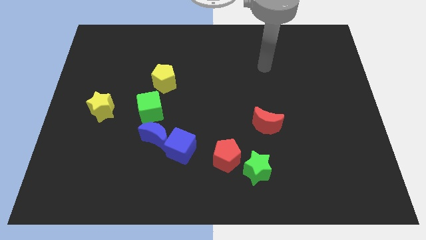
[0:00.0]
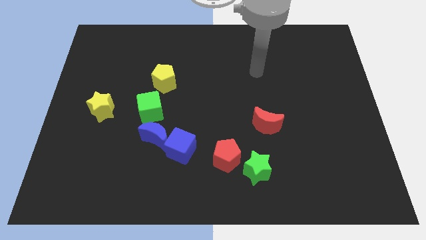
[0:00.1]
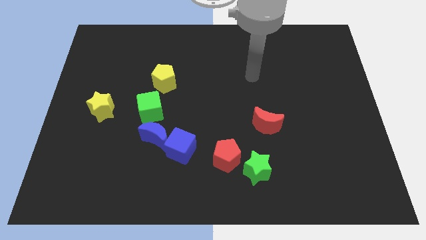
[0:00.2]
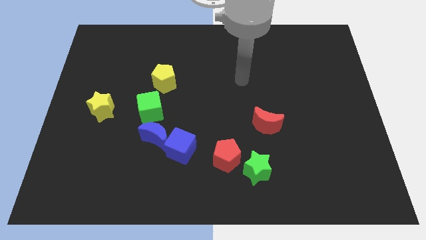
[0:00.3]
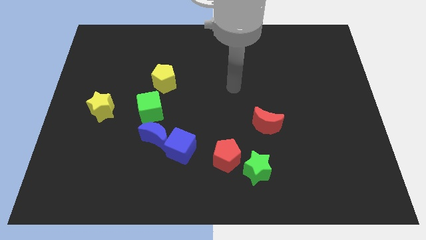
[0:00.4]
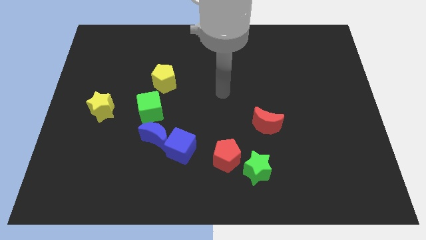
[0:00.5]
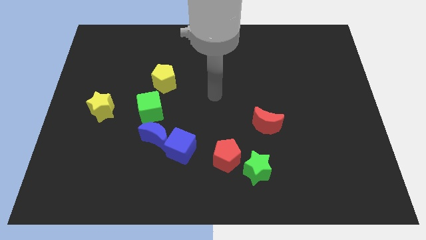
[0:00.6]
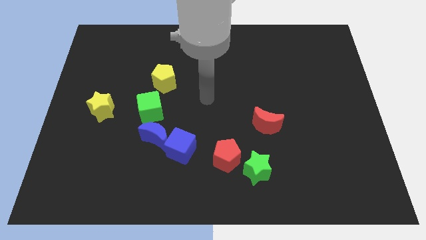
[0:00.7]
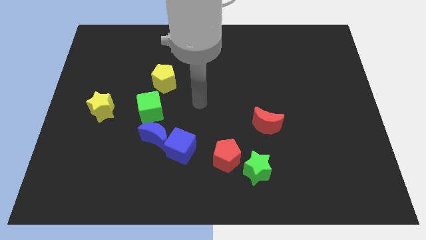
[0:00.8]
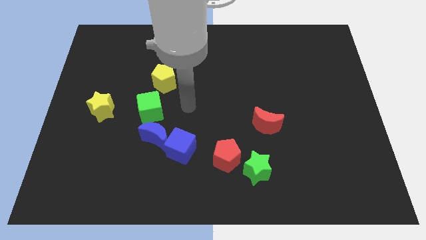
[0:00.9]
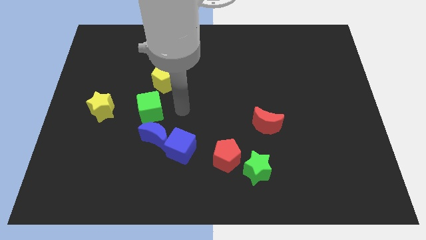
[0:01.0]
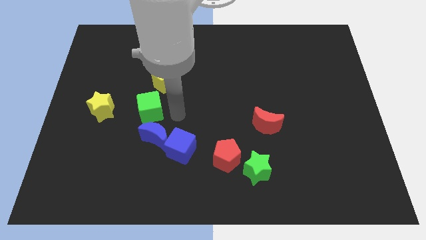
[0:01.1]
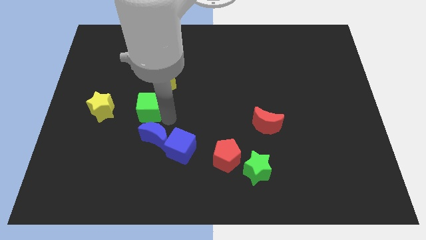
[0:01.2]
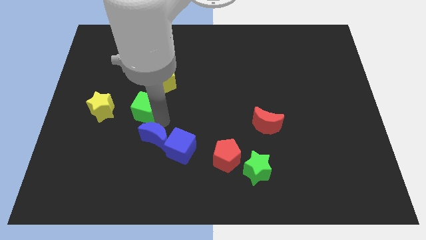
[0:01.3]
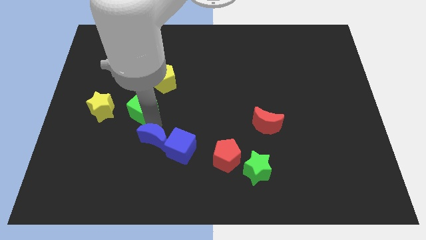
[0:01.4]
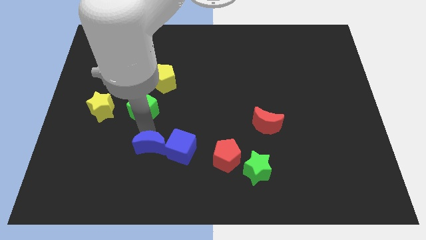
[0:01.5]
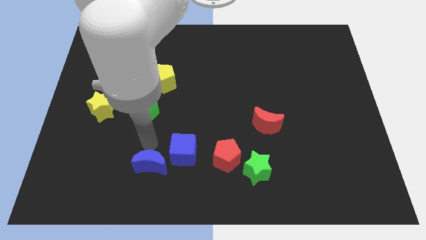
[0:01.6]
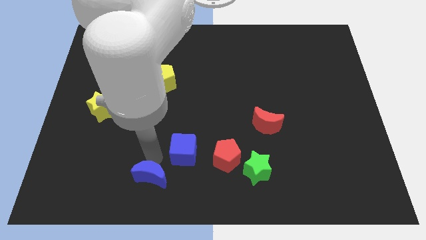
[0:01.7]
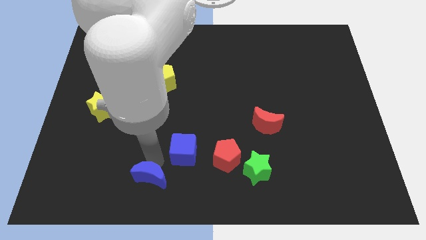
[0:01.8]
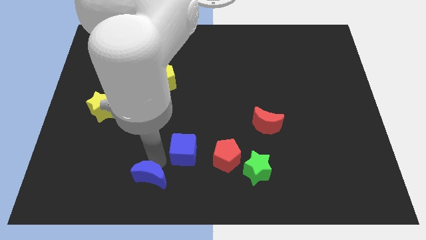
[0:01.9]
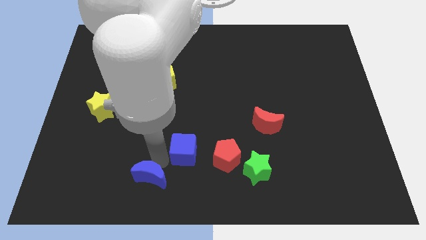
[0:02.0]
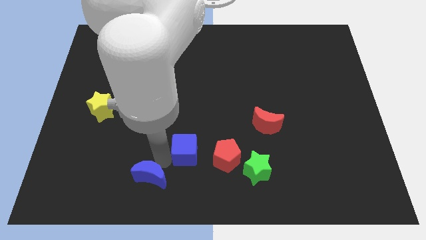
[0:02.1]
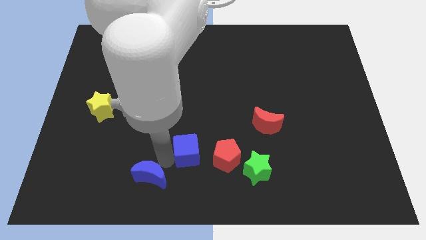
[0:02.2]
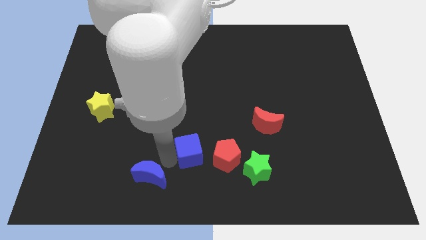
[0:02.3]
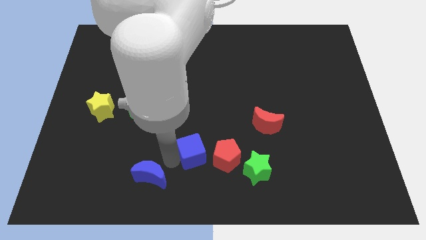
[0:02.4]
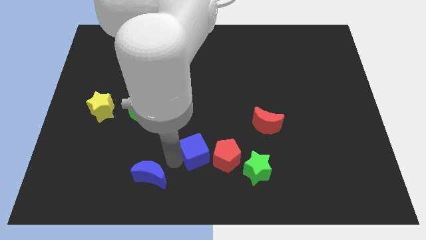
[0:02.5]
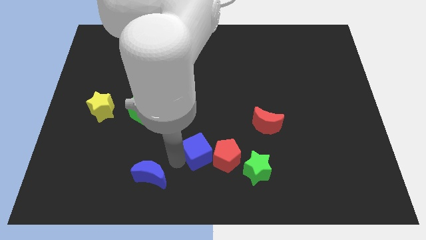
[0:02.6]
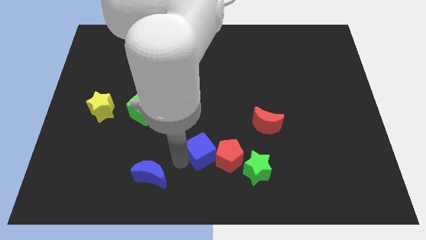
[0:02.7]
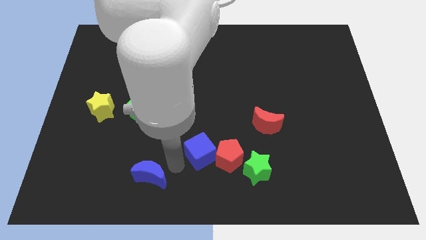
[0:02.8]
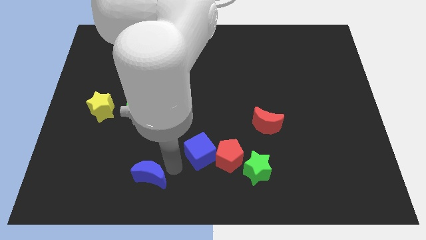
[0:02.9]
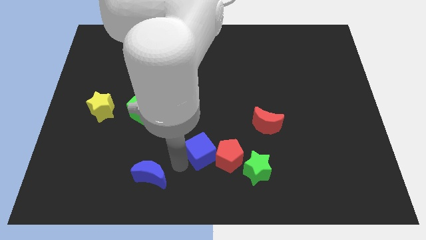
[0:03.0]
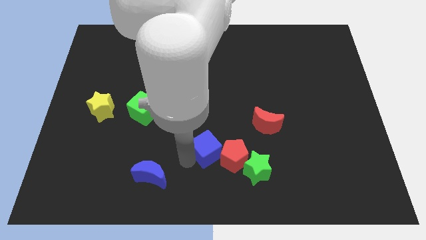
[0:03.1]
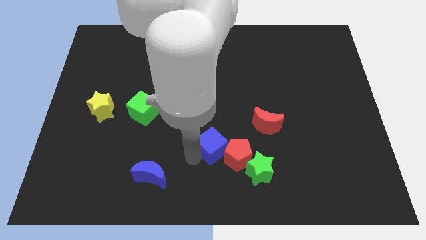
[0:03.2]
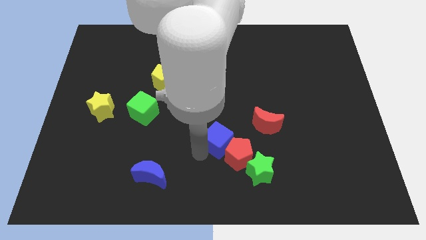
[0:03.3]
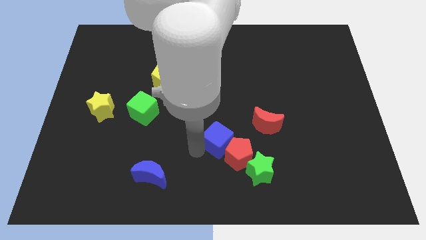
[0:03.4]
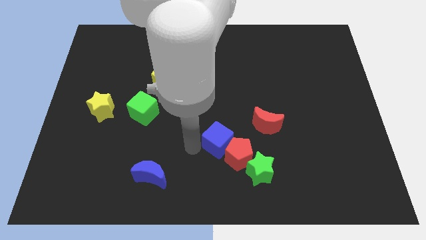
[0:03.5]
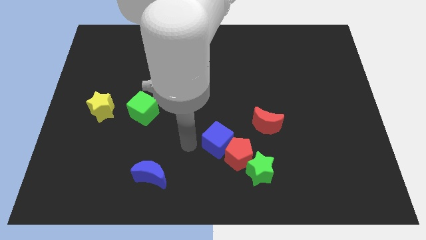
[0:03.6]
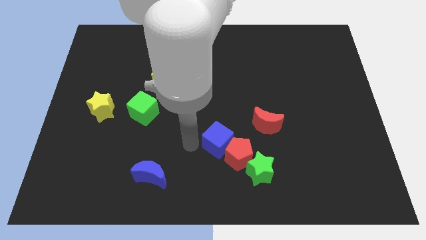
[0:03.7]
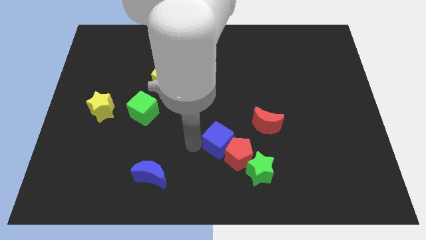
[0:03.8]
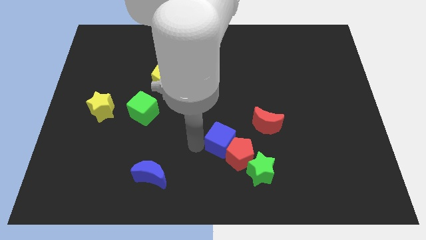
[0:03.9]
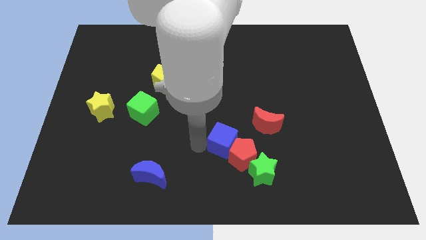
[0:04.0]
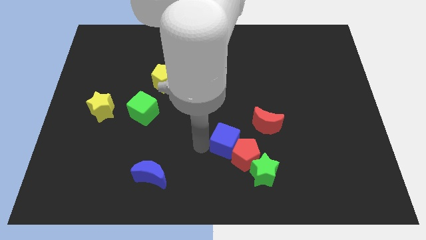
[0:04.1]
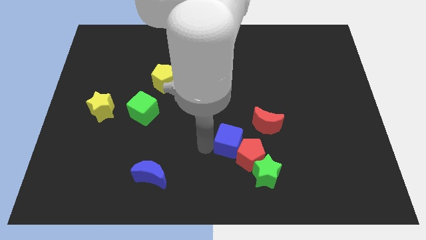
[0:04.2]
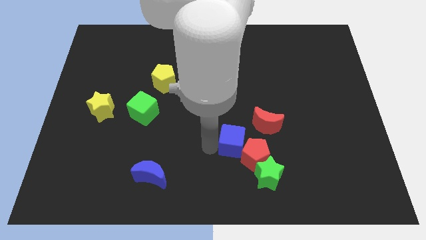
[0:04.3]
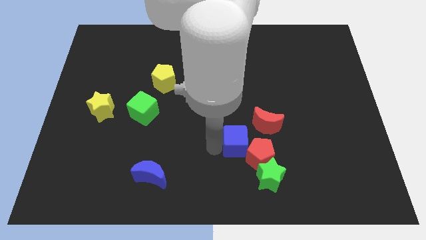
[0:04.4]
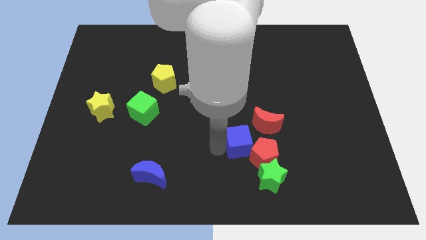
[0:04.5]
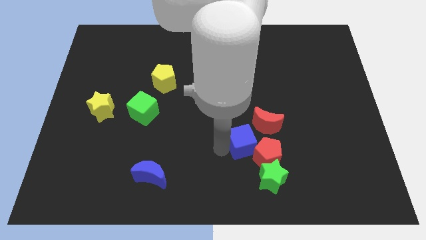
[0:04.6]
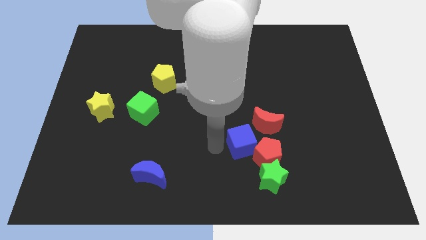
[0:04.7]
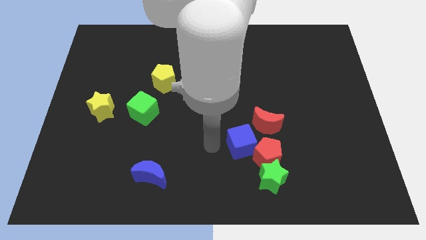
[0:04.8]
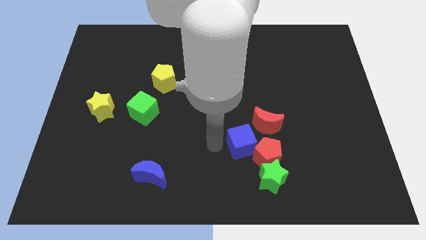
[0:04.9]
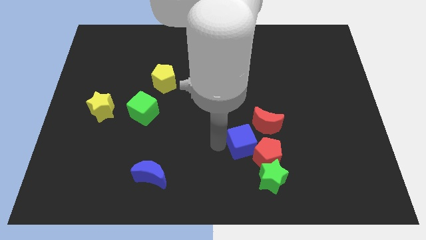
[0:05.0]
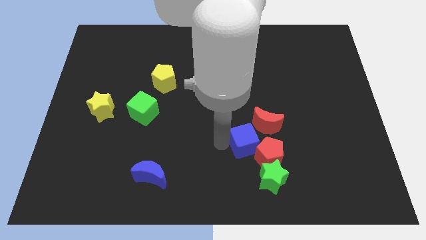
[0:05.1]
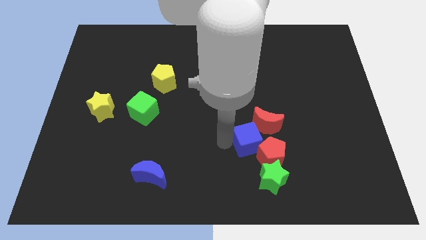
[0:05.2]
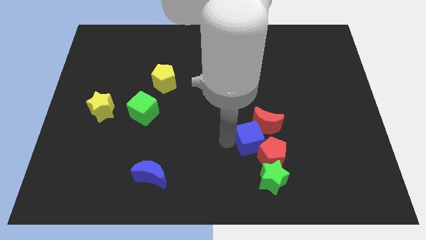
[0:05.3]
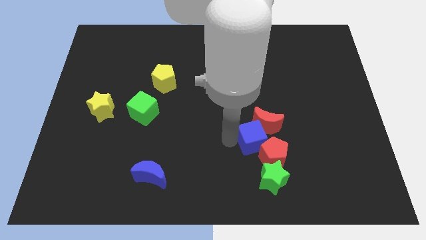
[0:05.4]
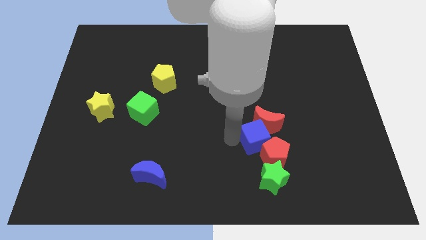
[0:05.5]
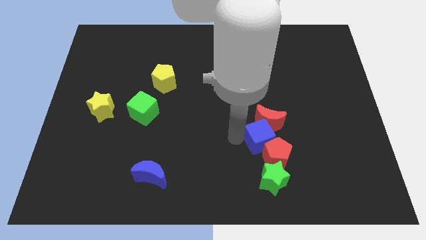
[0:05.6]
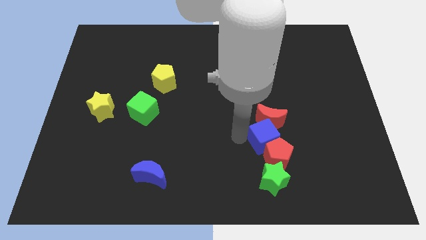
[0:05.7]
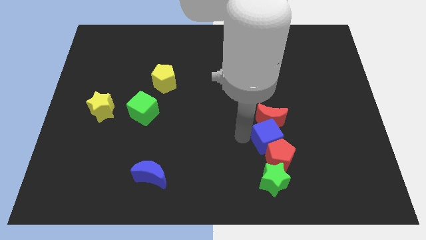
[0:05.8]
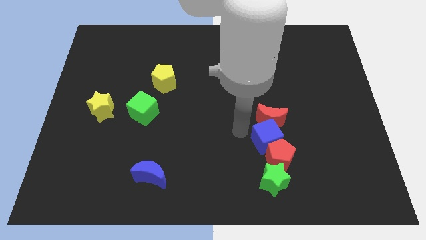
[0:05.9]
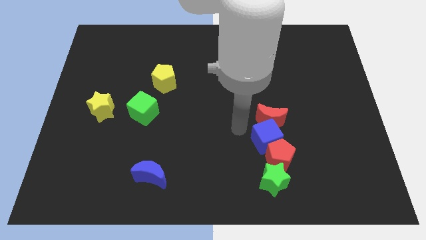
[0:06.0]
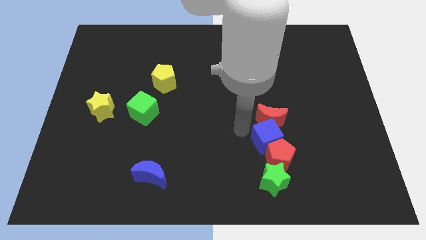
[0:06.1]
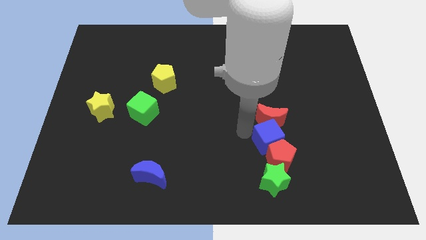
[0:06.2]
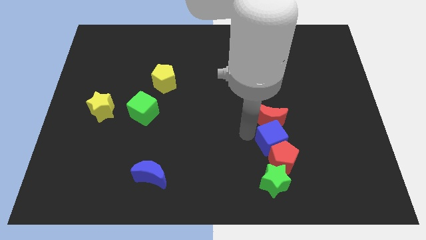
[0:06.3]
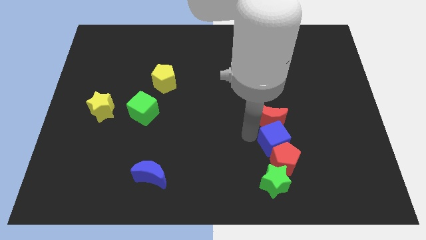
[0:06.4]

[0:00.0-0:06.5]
slide the blue cube right

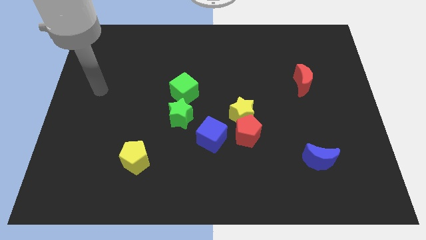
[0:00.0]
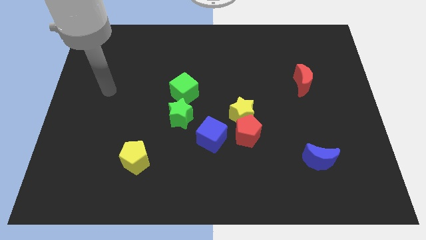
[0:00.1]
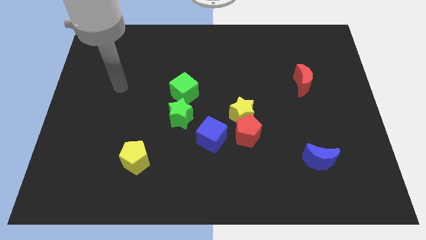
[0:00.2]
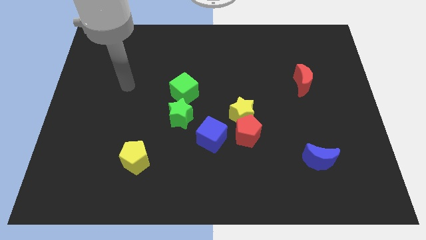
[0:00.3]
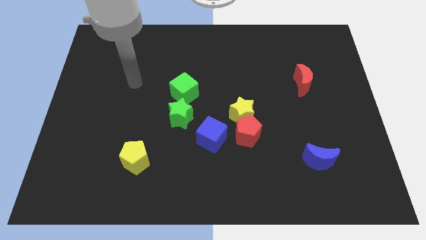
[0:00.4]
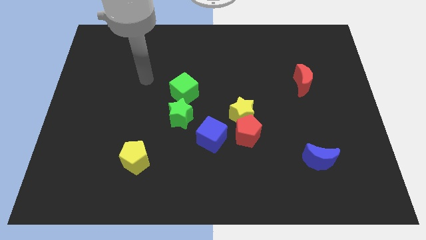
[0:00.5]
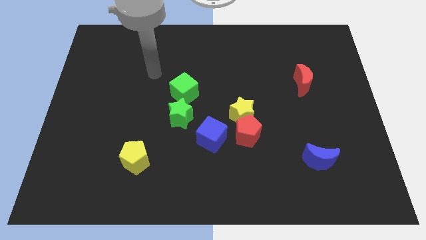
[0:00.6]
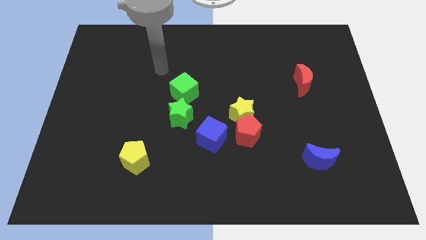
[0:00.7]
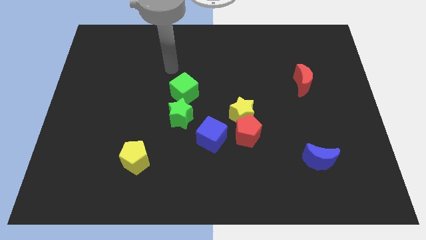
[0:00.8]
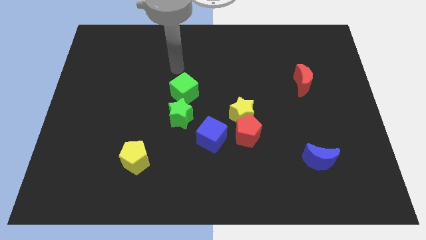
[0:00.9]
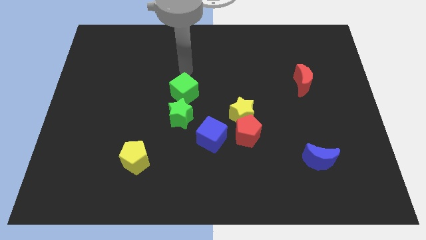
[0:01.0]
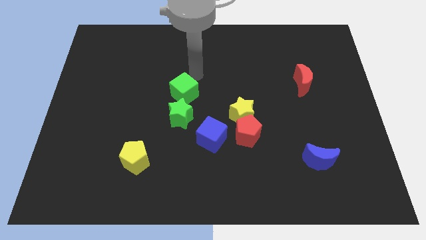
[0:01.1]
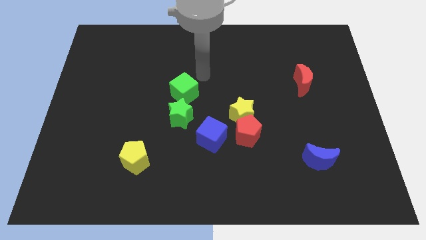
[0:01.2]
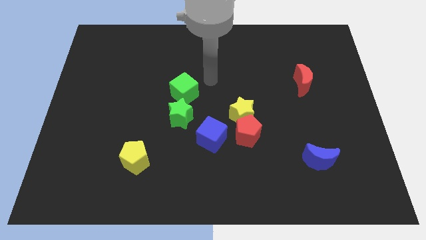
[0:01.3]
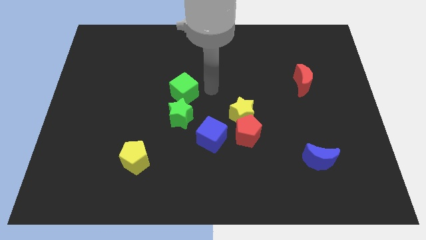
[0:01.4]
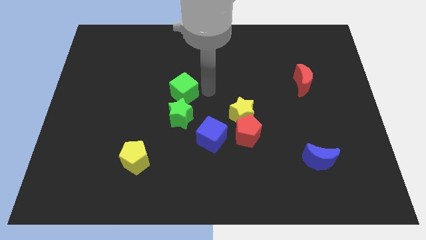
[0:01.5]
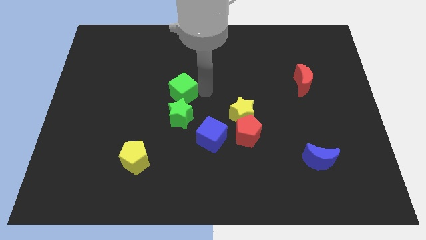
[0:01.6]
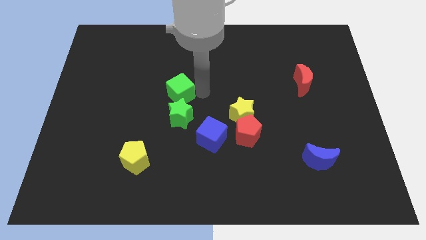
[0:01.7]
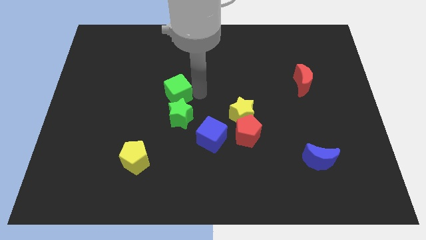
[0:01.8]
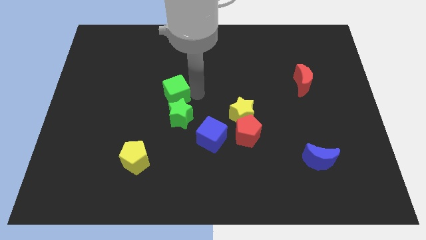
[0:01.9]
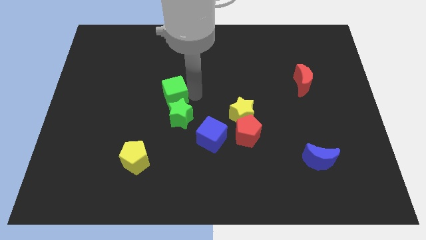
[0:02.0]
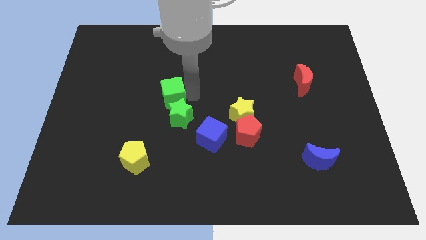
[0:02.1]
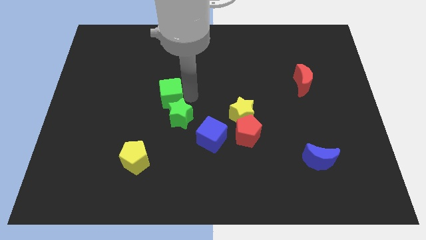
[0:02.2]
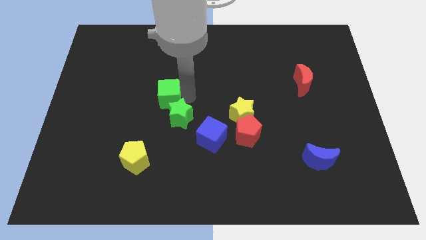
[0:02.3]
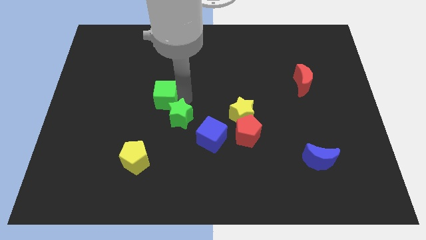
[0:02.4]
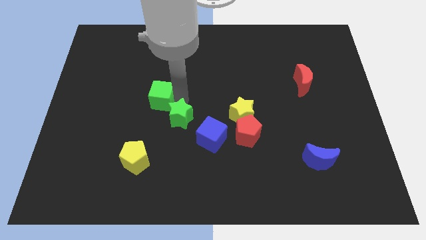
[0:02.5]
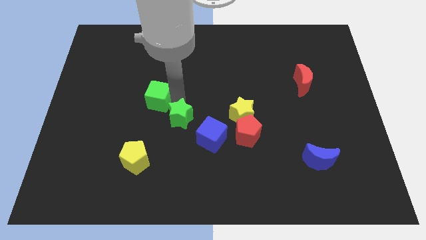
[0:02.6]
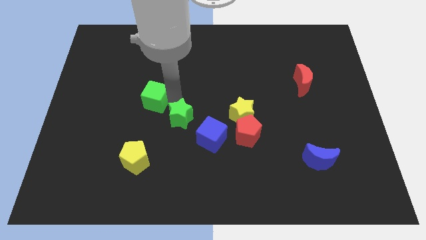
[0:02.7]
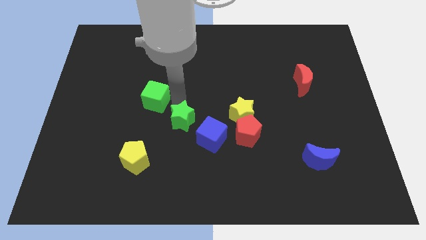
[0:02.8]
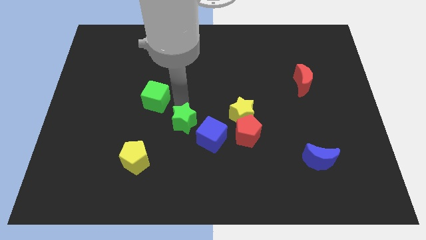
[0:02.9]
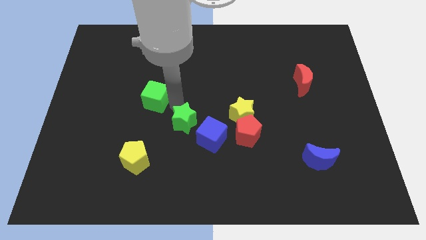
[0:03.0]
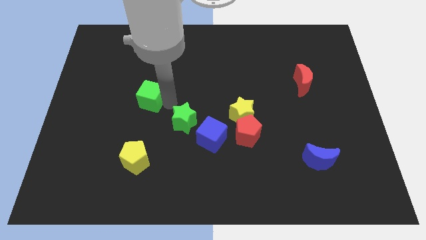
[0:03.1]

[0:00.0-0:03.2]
move the green cube left a little
